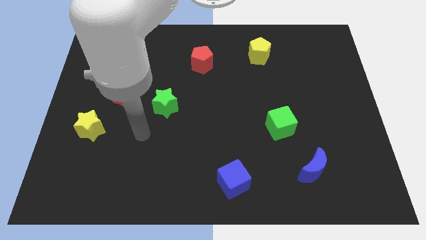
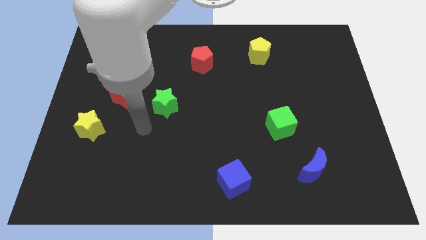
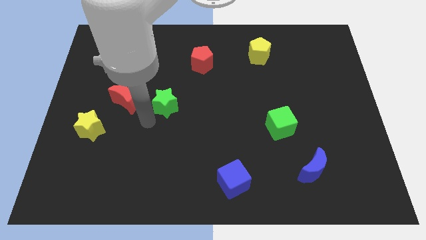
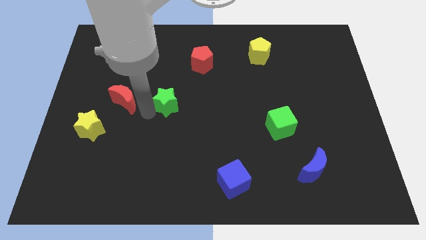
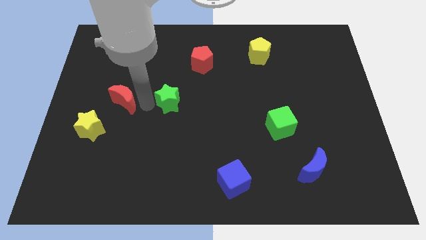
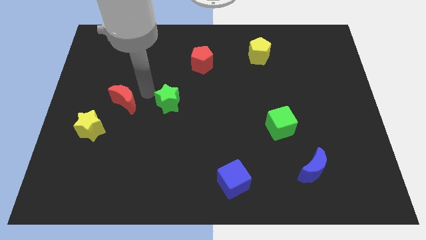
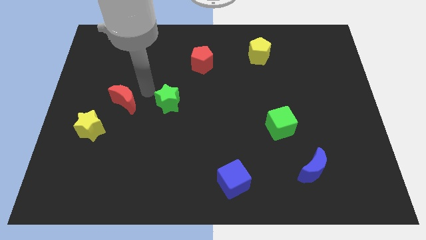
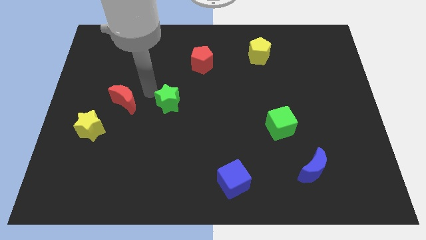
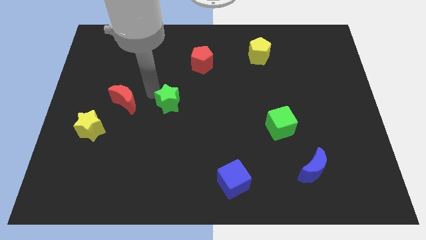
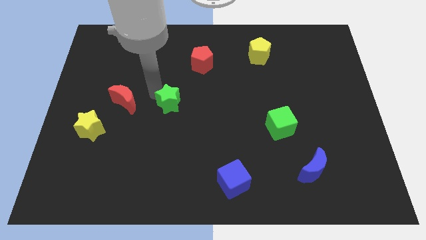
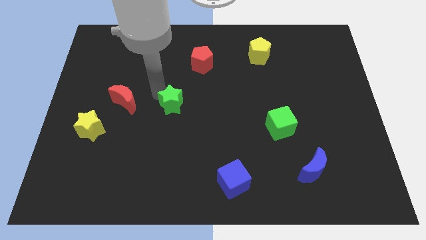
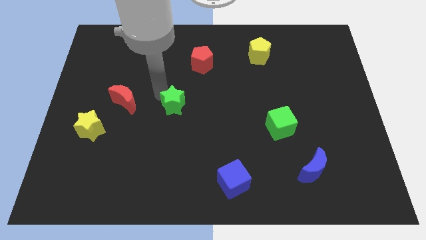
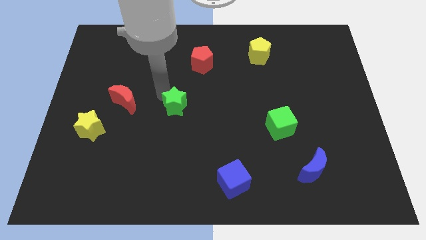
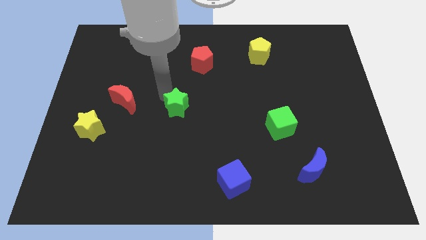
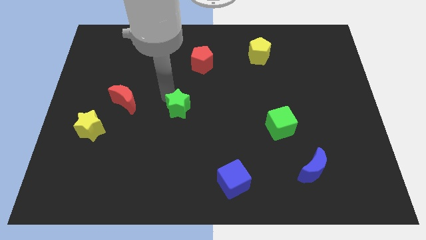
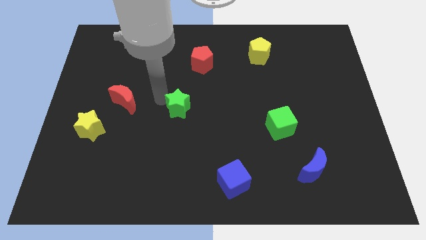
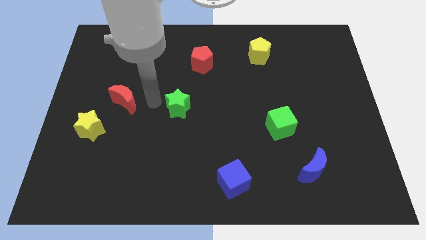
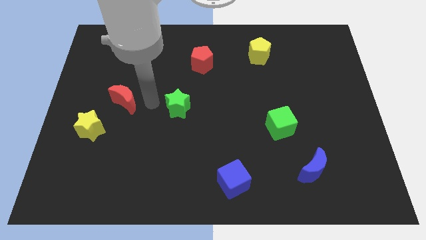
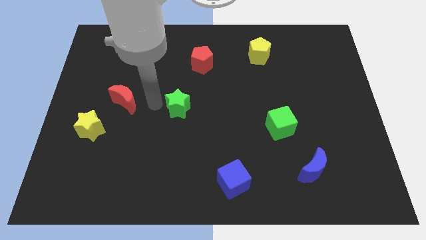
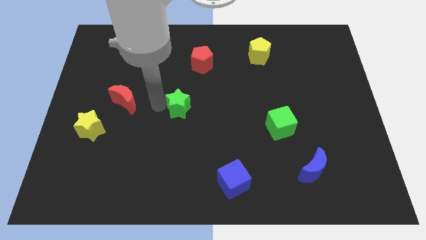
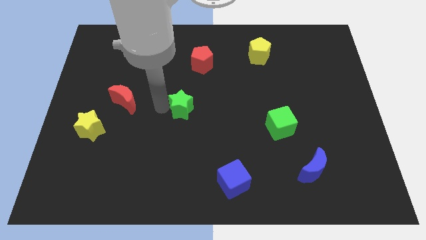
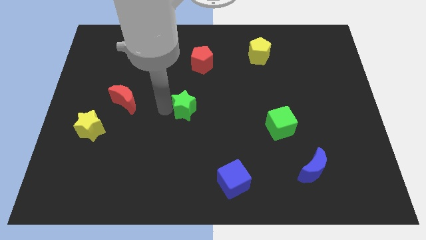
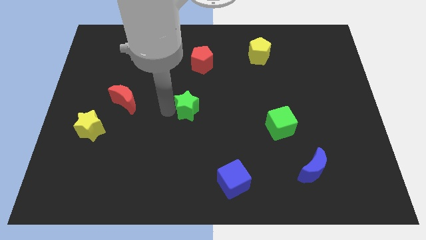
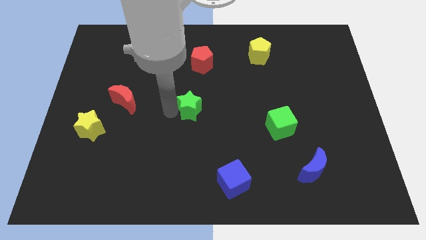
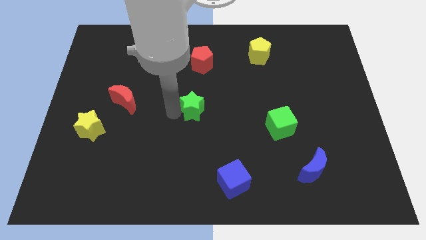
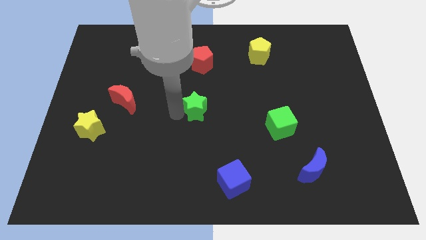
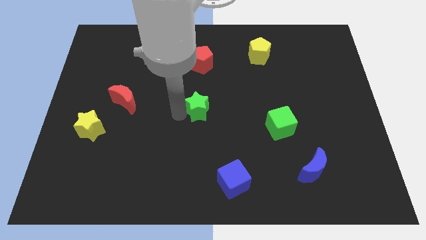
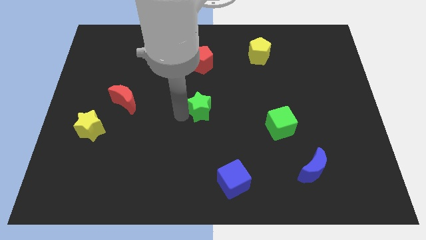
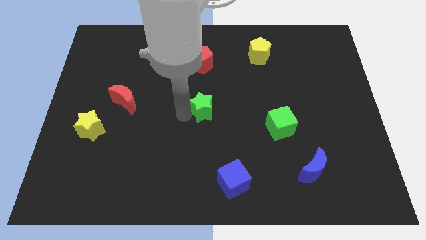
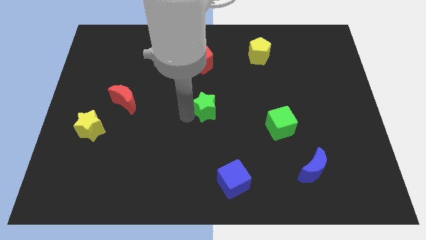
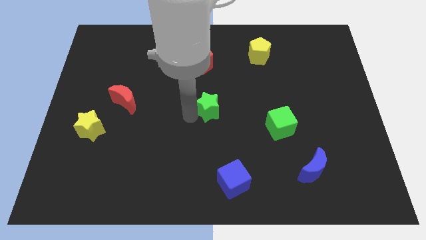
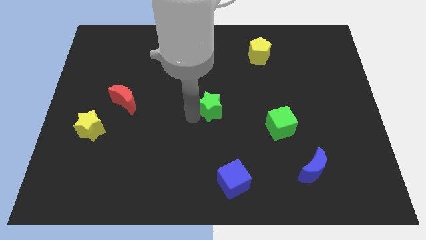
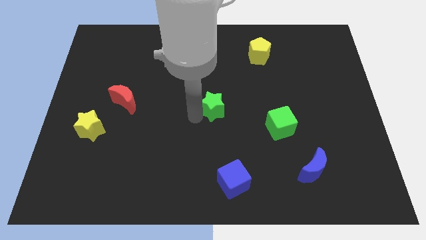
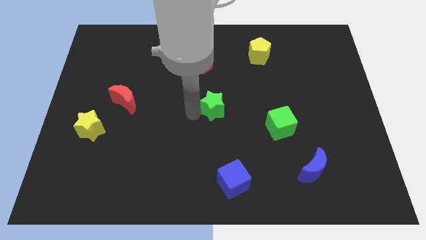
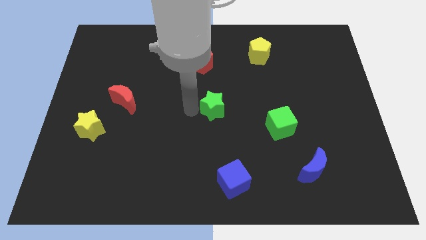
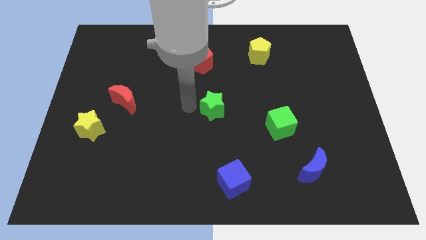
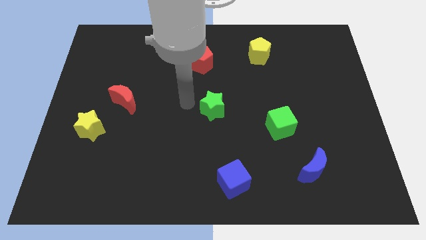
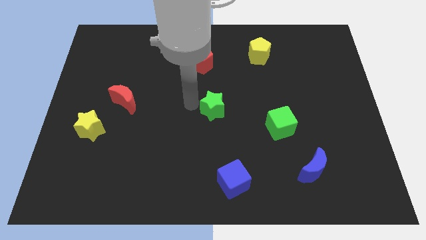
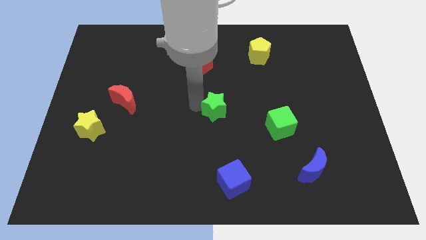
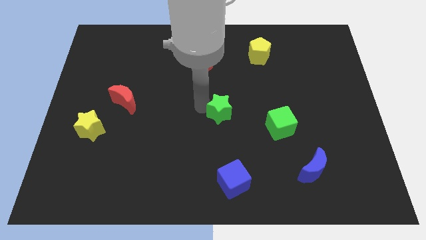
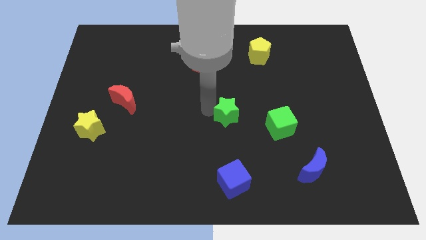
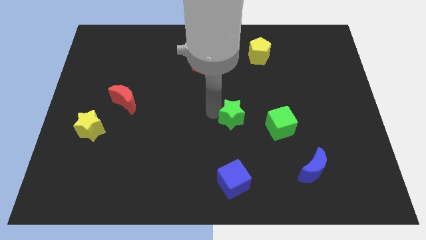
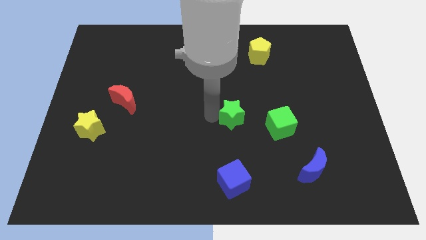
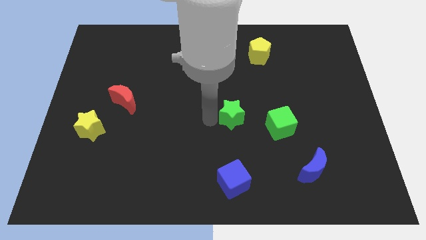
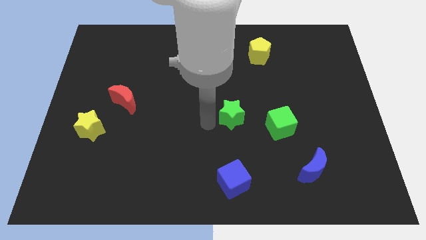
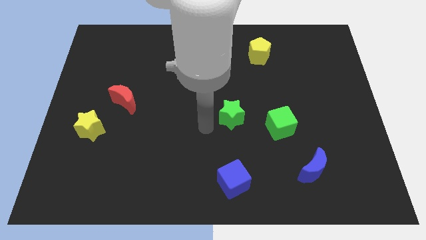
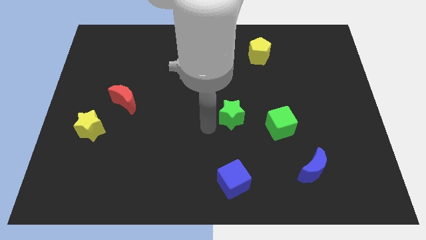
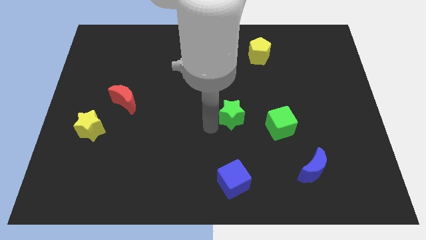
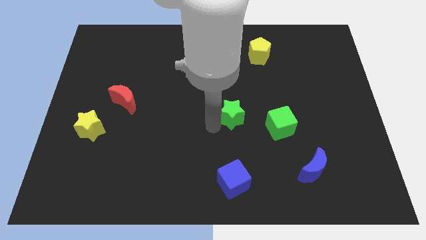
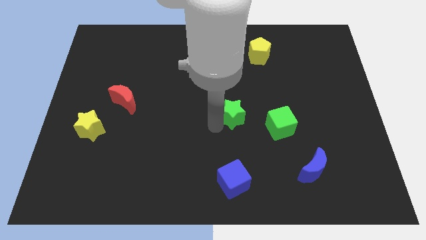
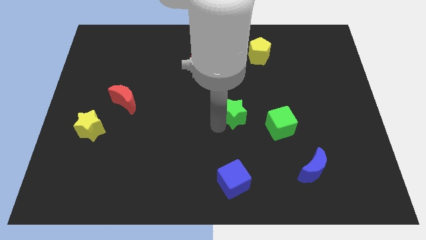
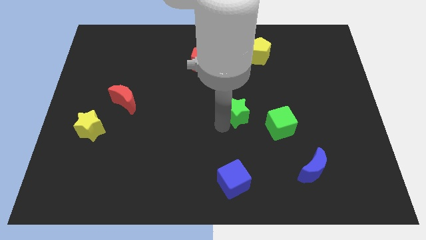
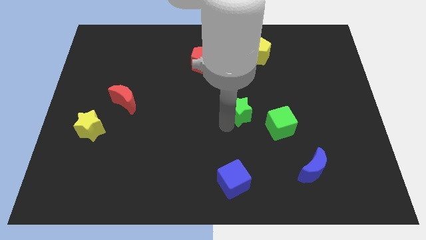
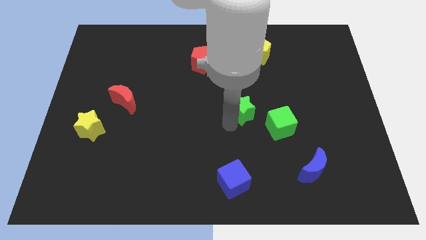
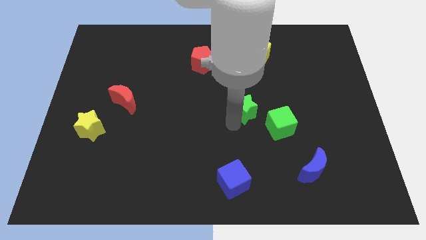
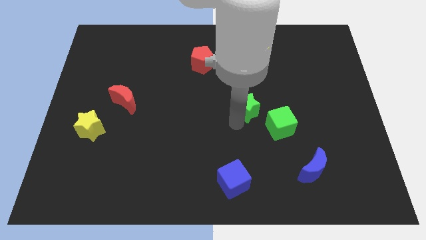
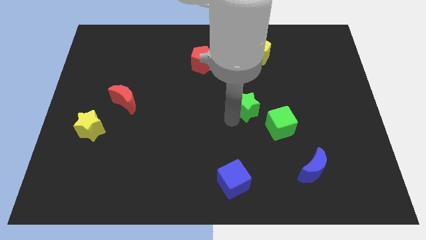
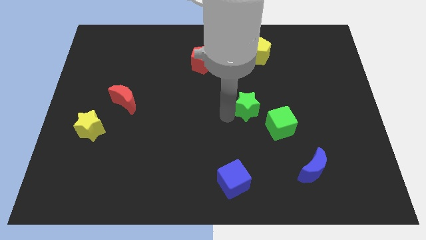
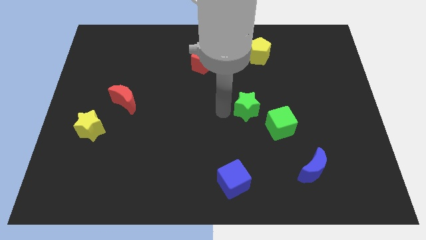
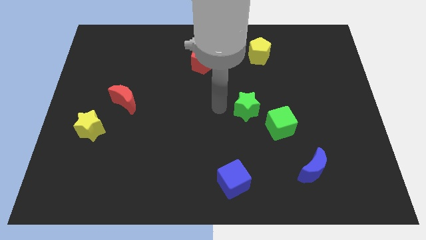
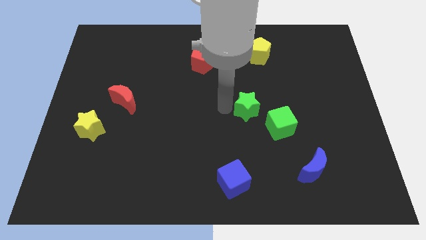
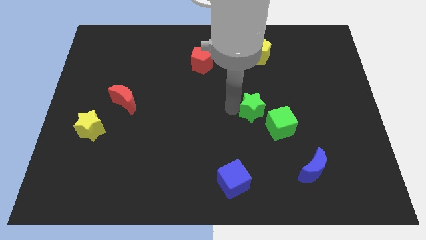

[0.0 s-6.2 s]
slide the green star to the right
